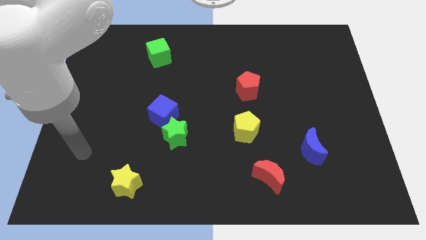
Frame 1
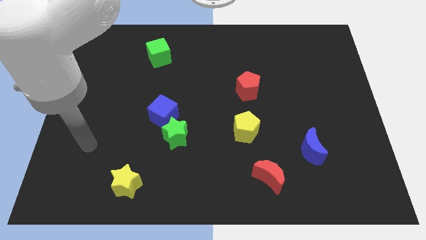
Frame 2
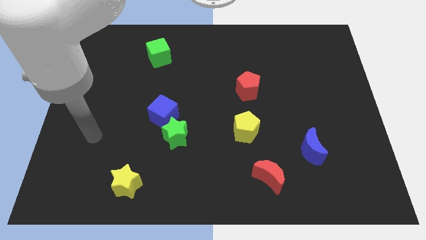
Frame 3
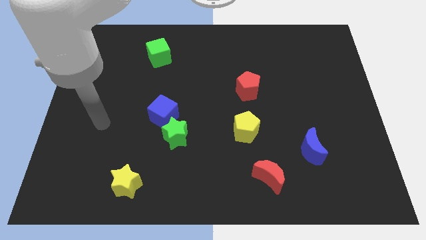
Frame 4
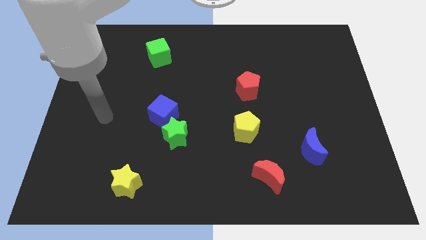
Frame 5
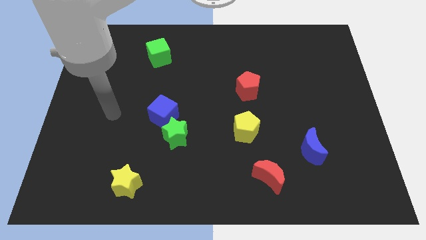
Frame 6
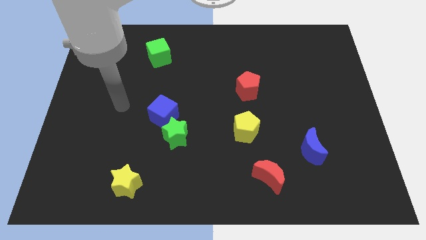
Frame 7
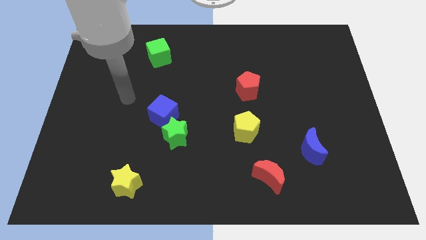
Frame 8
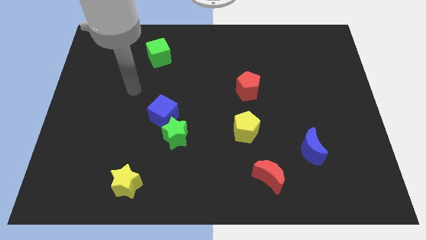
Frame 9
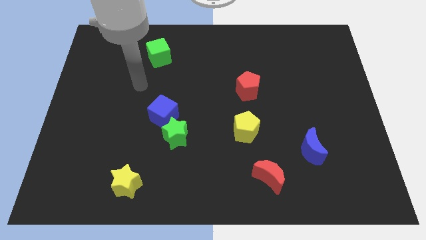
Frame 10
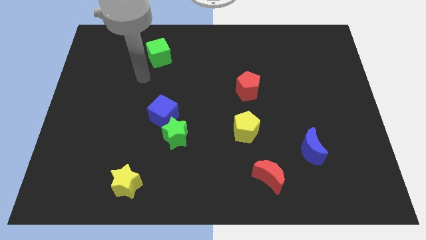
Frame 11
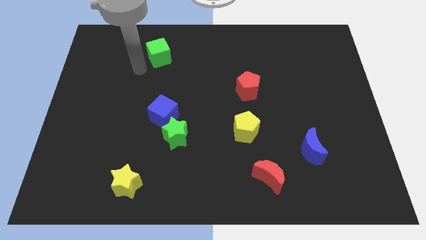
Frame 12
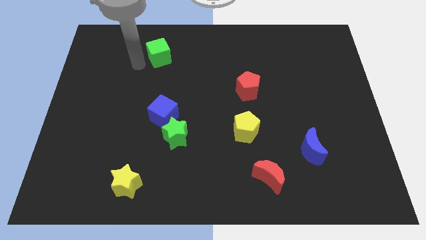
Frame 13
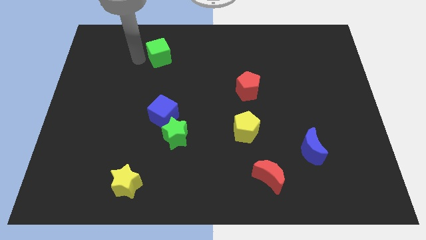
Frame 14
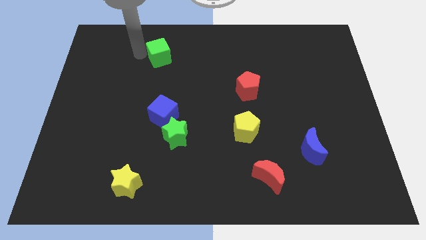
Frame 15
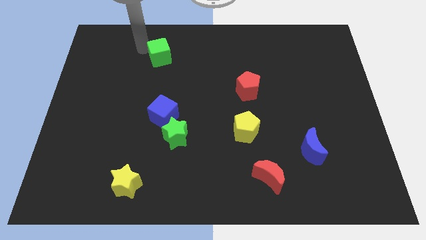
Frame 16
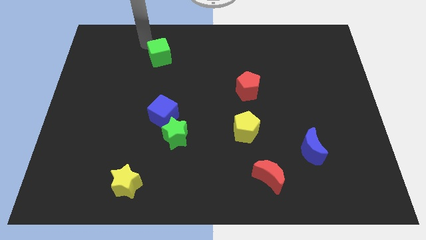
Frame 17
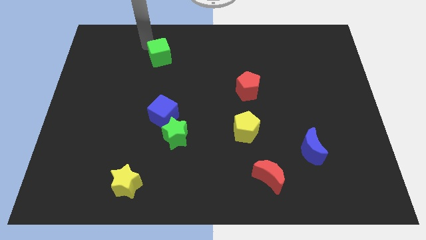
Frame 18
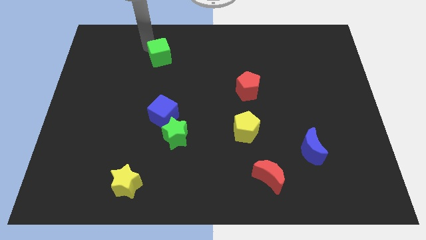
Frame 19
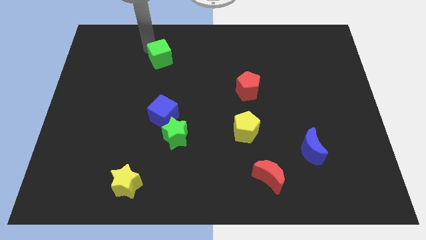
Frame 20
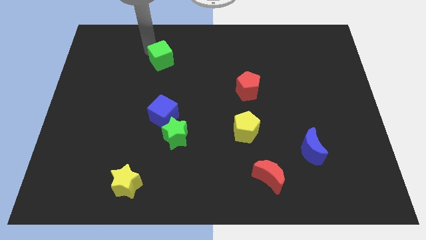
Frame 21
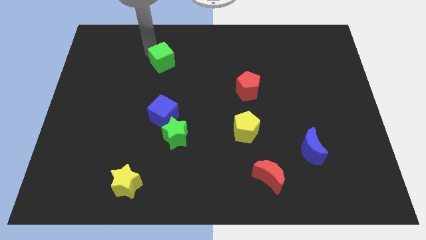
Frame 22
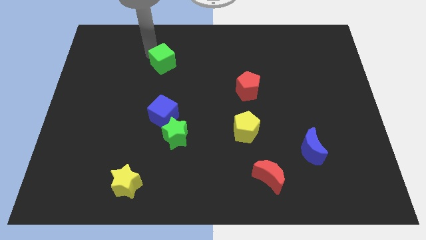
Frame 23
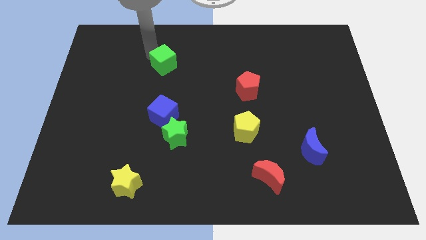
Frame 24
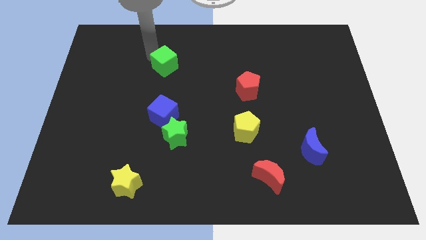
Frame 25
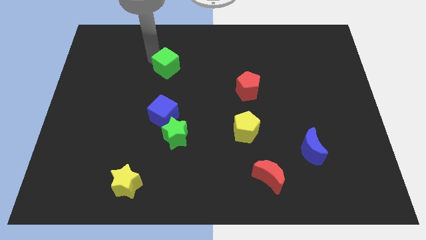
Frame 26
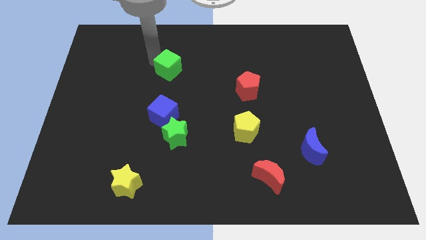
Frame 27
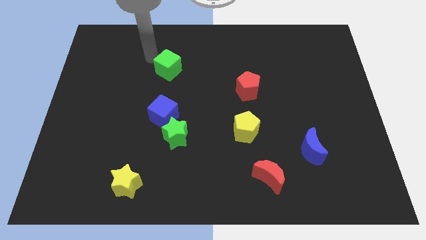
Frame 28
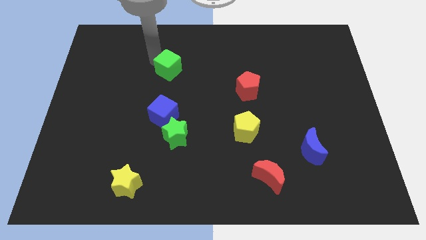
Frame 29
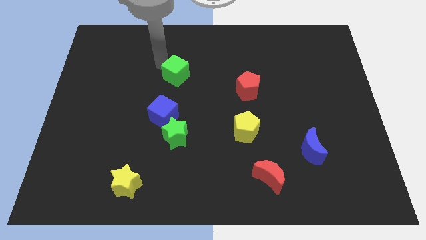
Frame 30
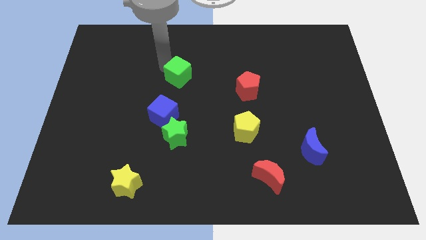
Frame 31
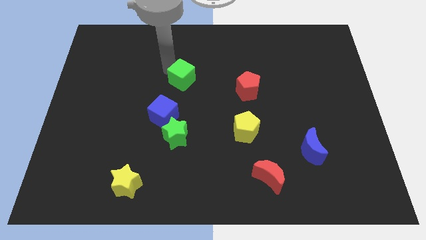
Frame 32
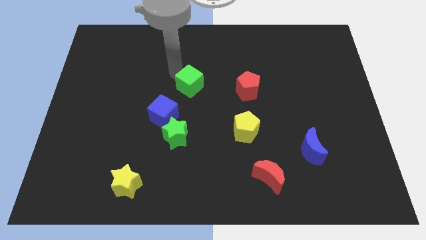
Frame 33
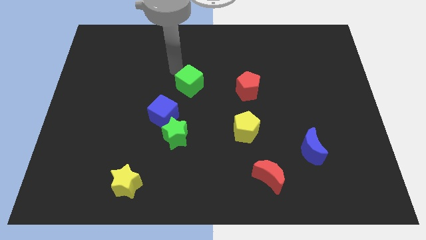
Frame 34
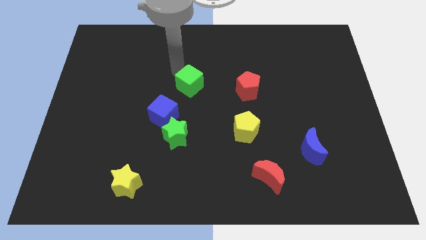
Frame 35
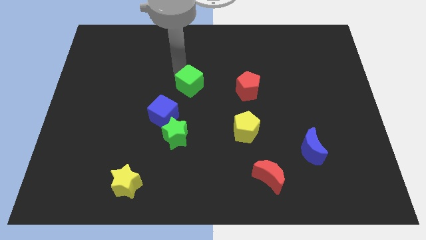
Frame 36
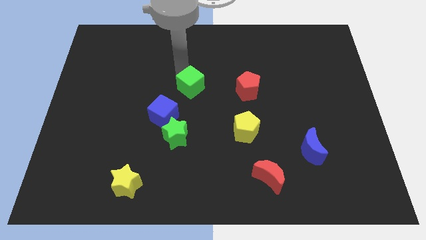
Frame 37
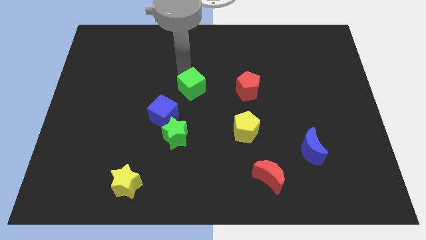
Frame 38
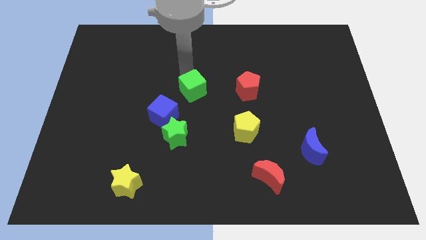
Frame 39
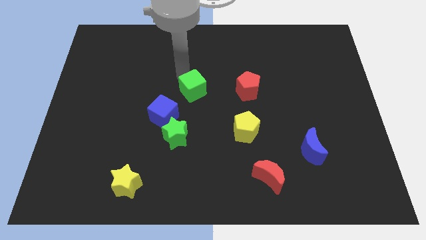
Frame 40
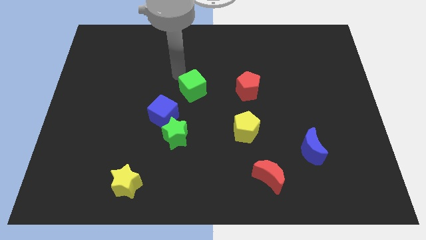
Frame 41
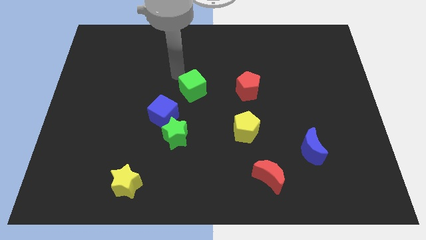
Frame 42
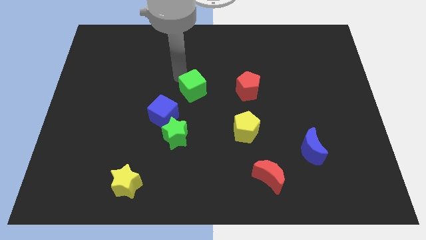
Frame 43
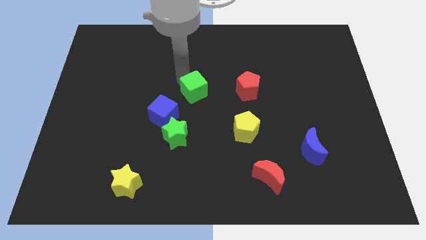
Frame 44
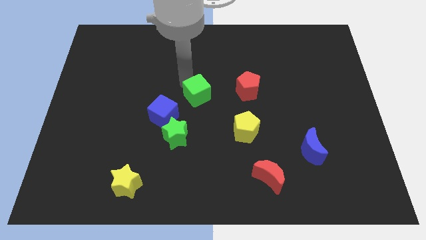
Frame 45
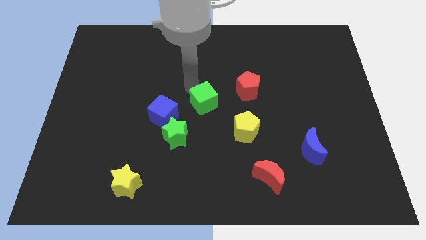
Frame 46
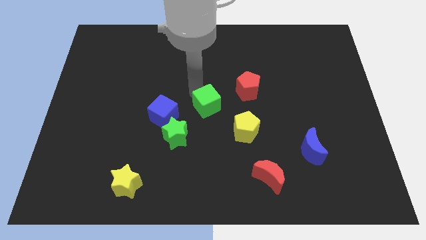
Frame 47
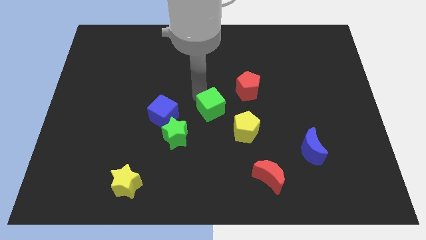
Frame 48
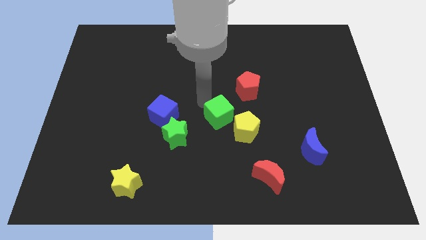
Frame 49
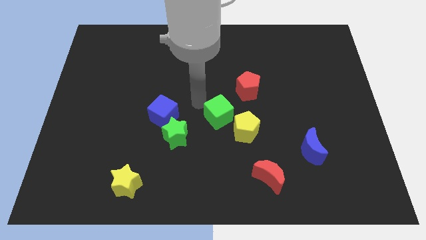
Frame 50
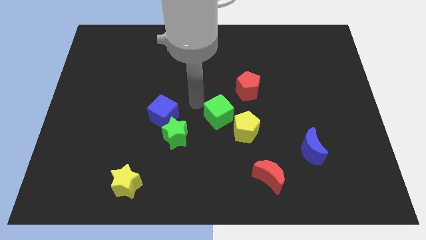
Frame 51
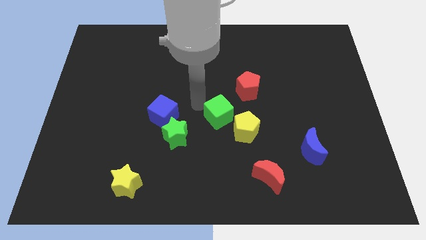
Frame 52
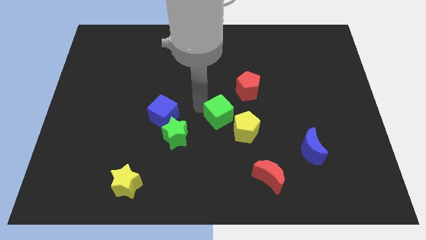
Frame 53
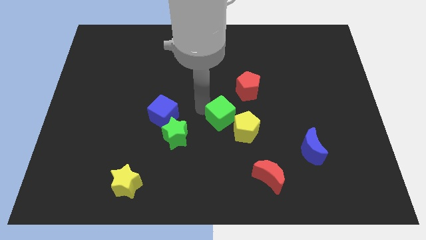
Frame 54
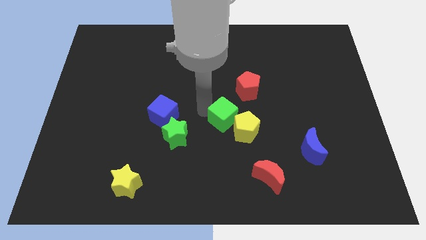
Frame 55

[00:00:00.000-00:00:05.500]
move the green cube to the yellow pentagon

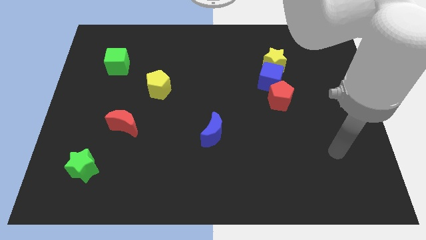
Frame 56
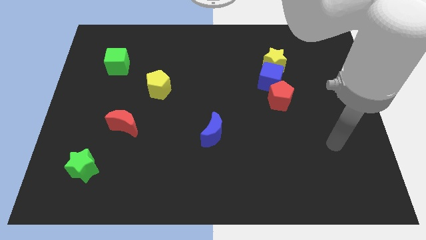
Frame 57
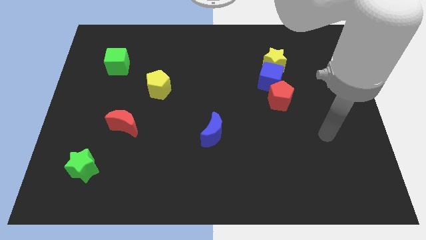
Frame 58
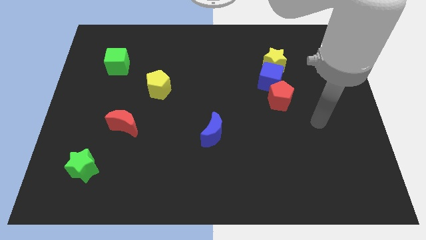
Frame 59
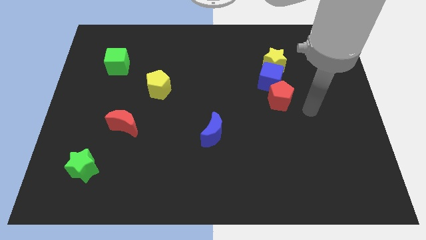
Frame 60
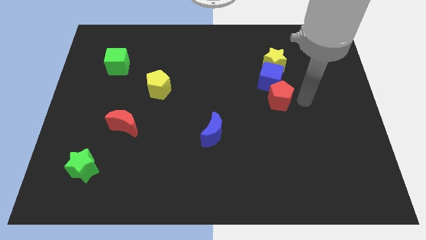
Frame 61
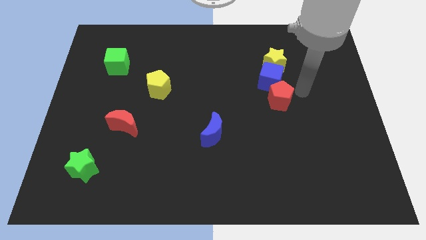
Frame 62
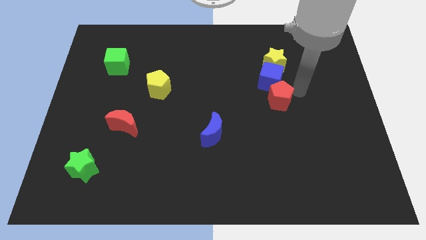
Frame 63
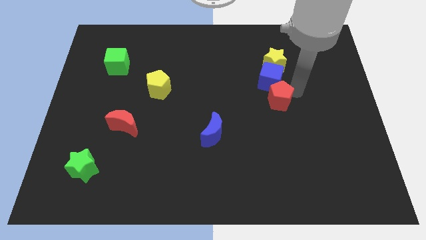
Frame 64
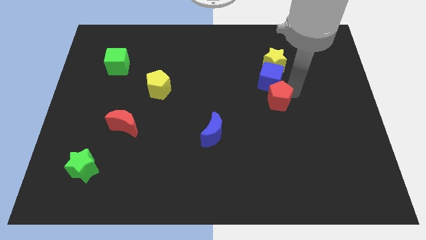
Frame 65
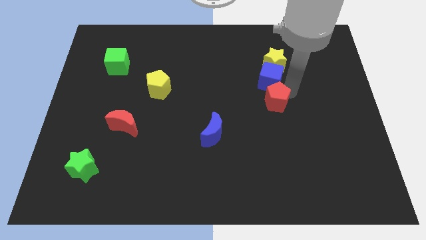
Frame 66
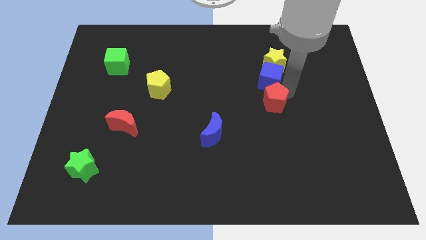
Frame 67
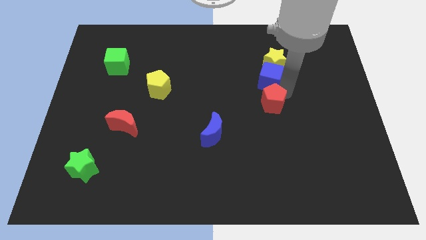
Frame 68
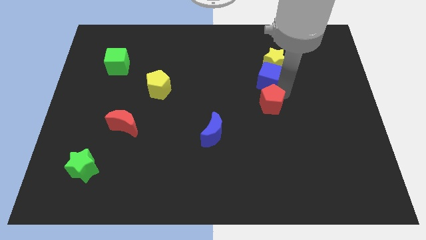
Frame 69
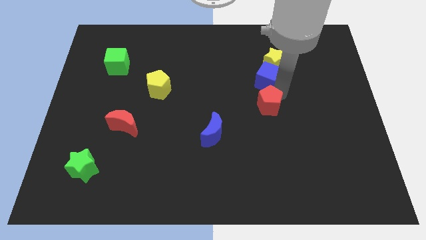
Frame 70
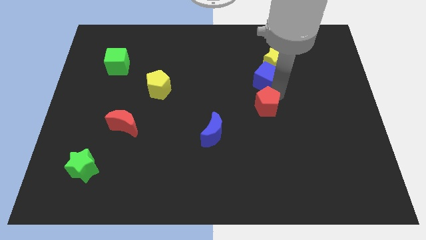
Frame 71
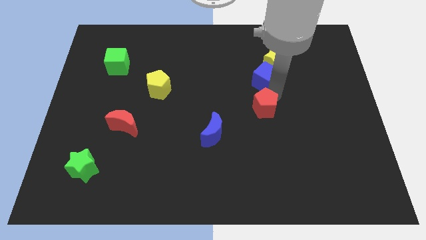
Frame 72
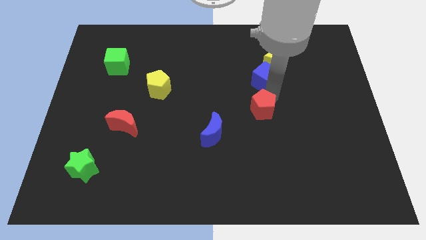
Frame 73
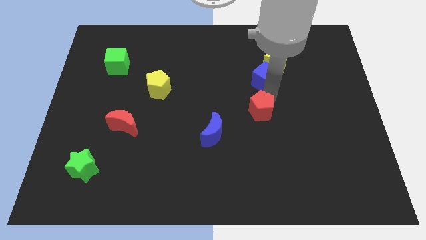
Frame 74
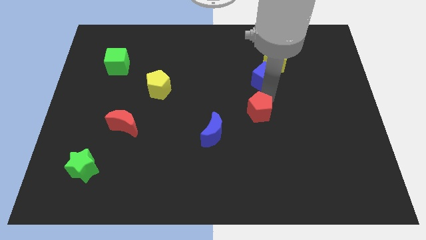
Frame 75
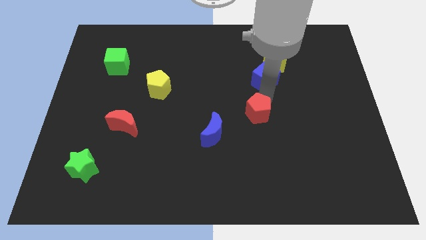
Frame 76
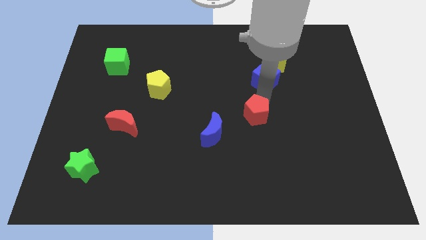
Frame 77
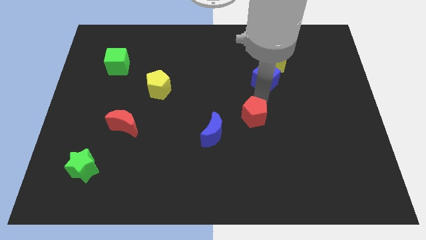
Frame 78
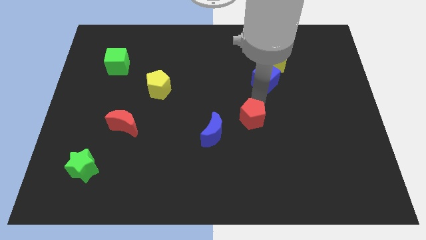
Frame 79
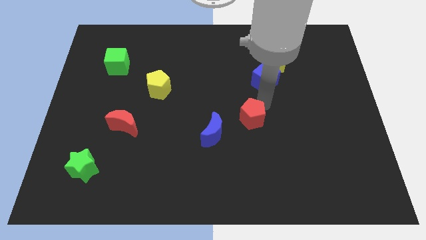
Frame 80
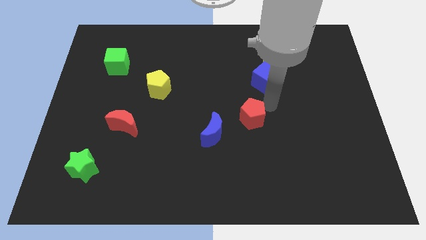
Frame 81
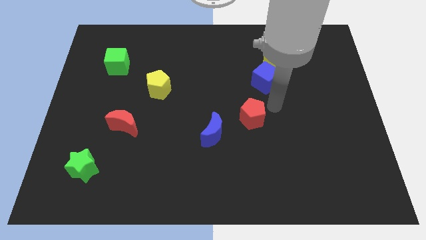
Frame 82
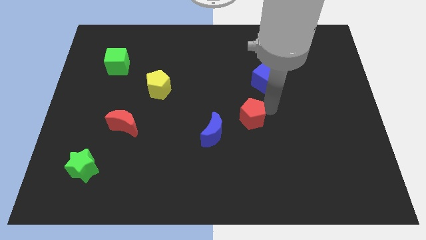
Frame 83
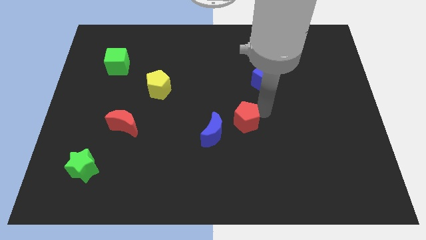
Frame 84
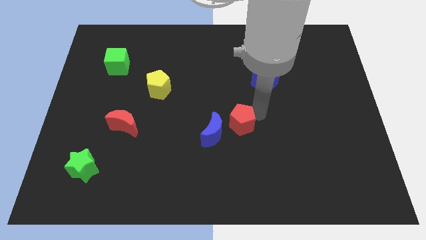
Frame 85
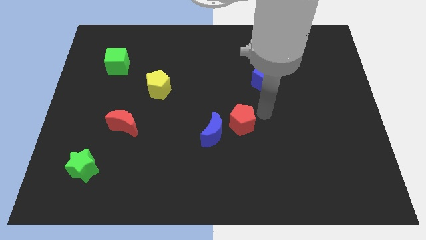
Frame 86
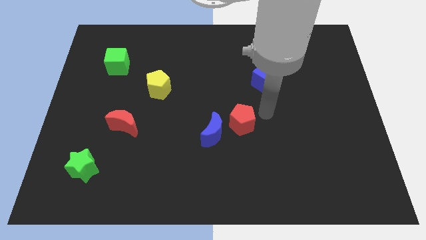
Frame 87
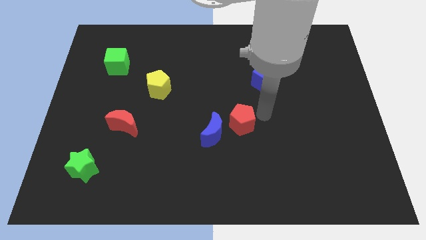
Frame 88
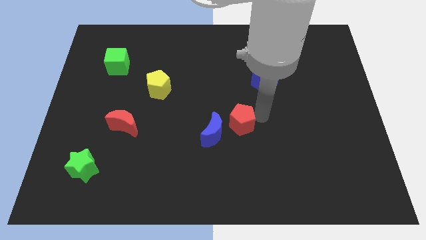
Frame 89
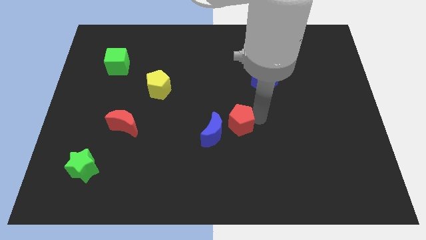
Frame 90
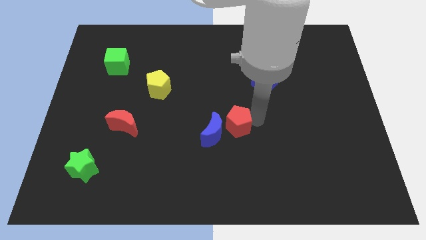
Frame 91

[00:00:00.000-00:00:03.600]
push the red pentagon towards the blue moon
